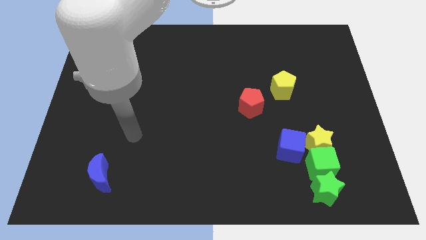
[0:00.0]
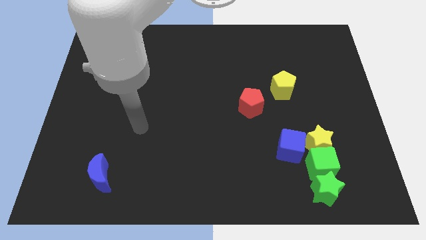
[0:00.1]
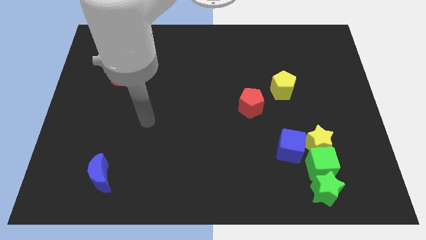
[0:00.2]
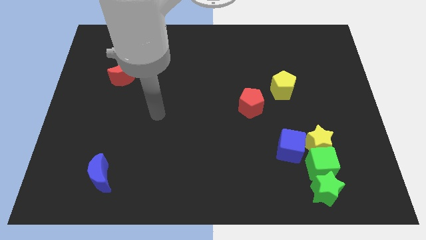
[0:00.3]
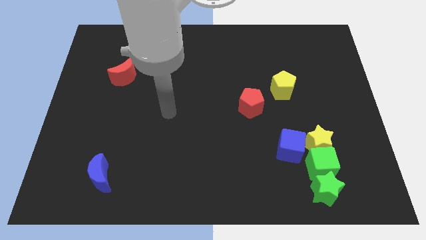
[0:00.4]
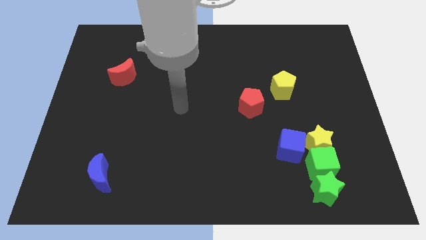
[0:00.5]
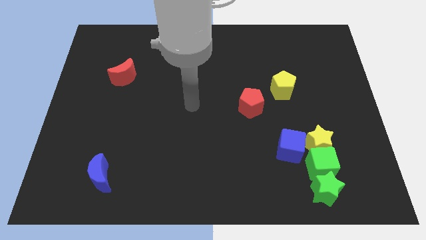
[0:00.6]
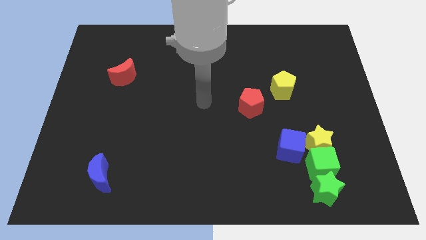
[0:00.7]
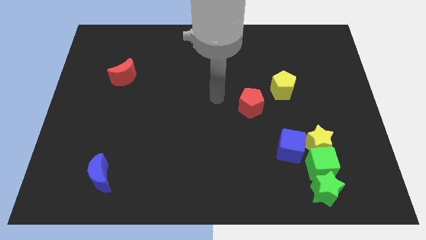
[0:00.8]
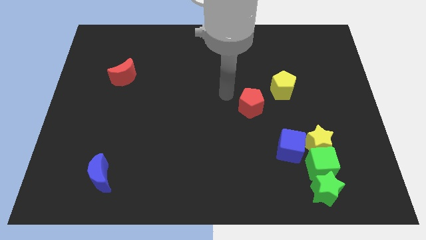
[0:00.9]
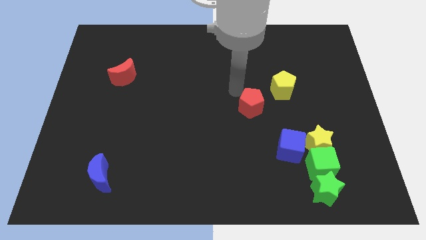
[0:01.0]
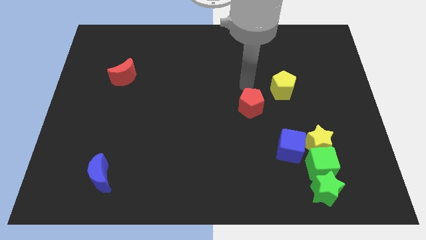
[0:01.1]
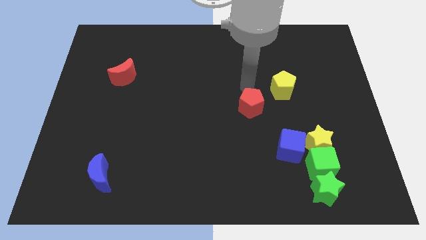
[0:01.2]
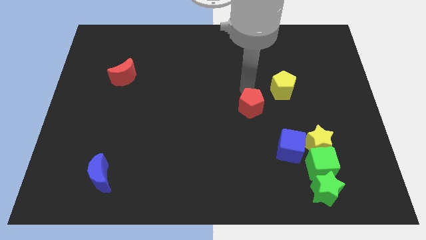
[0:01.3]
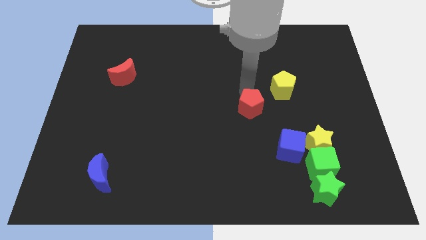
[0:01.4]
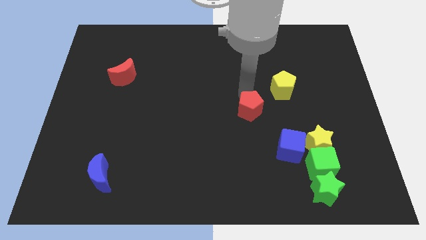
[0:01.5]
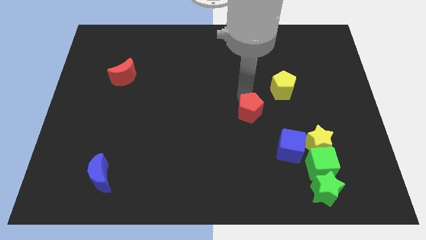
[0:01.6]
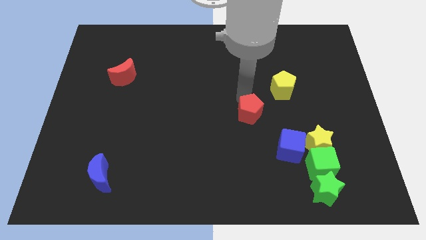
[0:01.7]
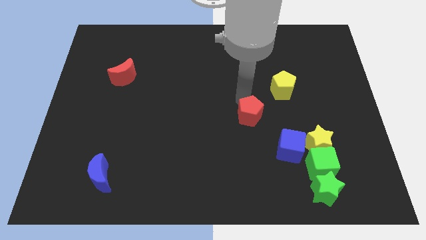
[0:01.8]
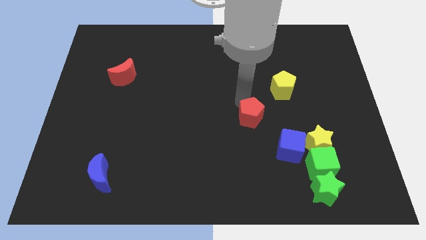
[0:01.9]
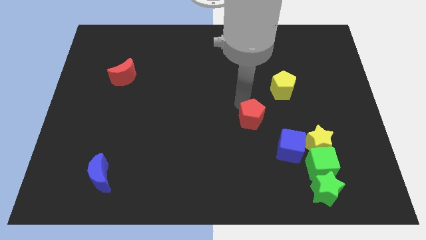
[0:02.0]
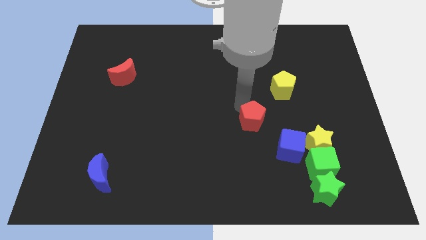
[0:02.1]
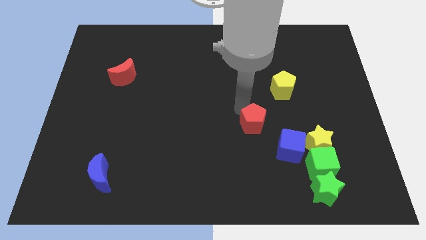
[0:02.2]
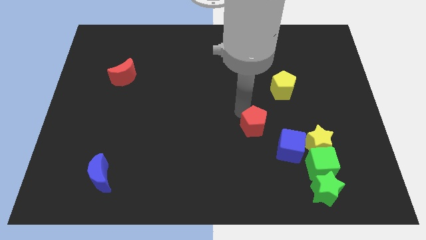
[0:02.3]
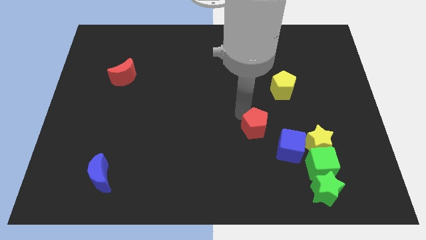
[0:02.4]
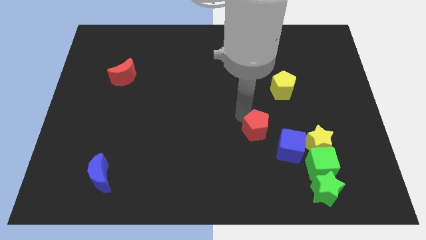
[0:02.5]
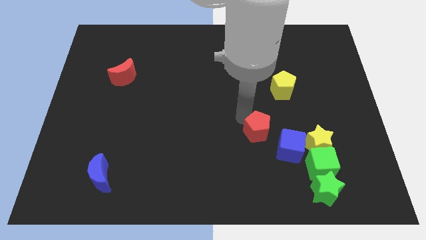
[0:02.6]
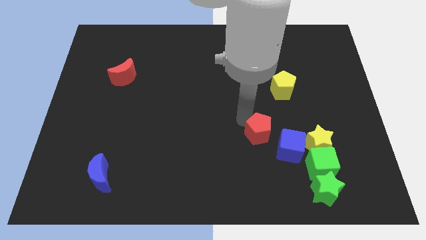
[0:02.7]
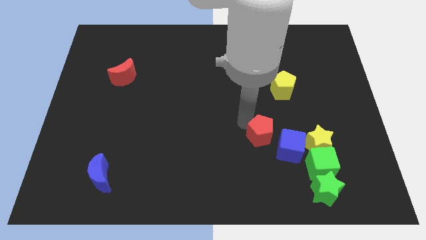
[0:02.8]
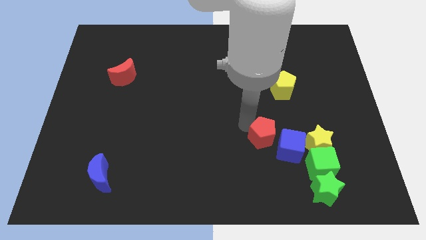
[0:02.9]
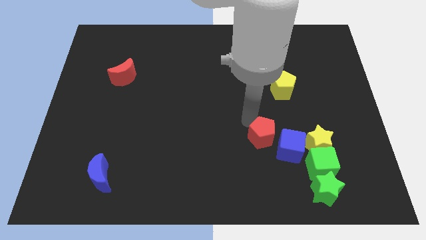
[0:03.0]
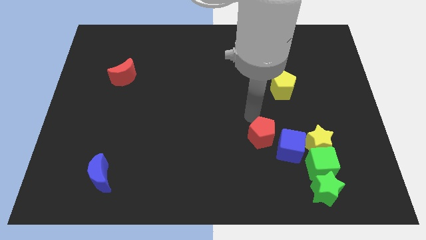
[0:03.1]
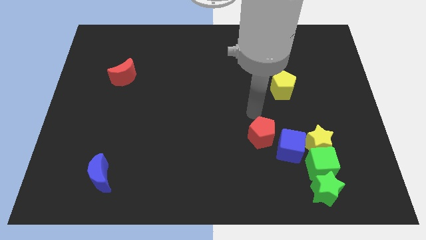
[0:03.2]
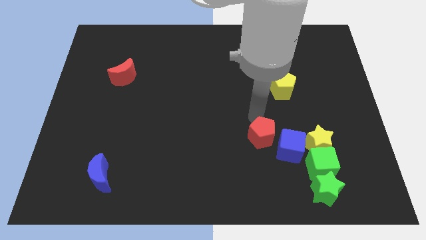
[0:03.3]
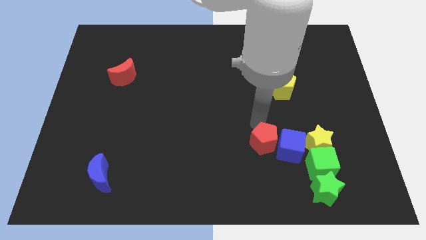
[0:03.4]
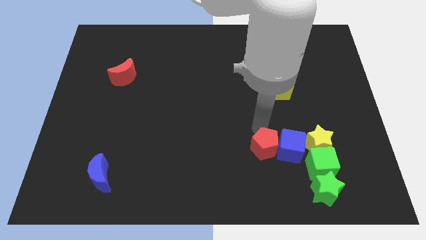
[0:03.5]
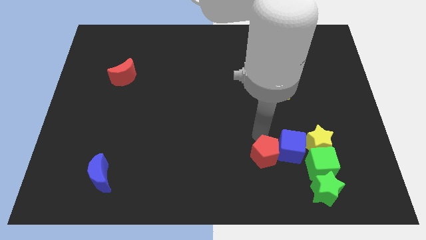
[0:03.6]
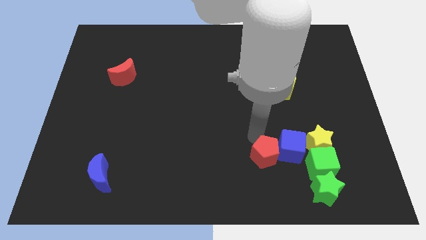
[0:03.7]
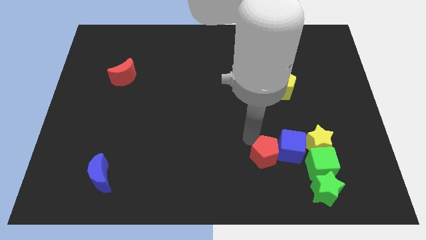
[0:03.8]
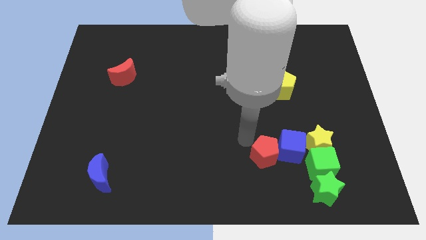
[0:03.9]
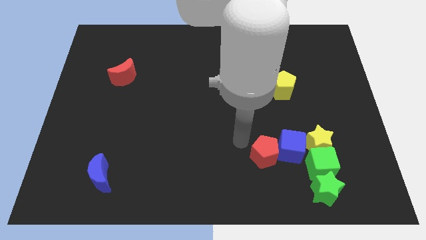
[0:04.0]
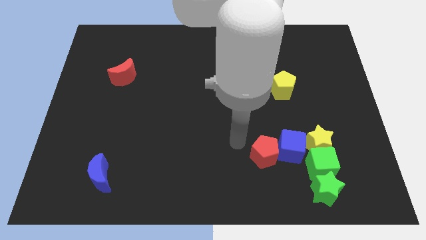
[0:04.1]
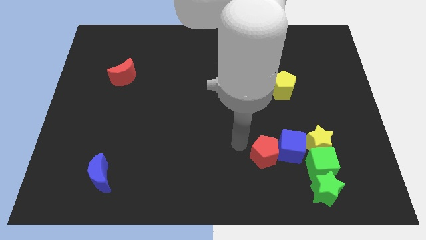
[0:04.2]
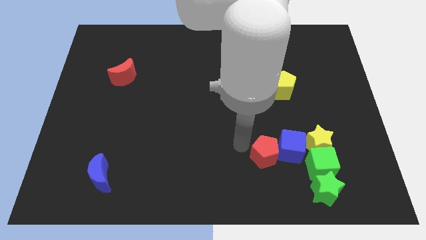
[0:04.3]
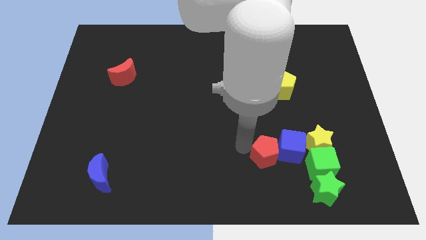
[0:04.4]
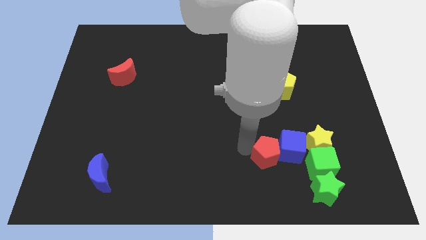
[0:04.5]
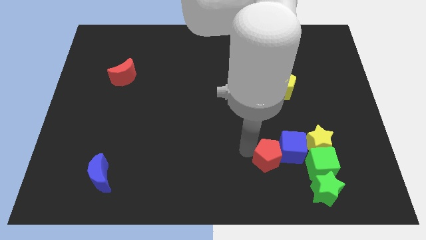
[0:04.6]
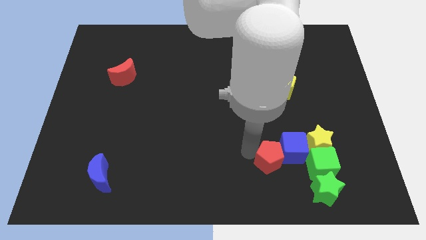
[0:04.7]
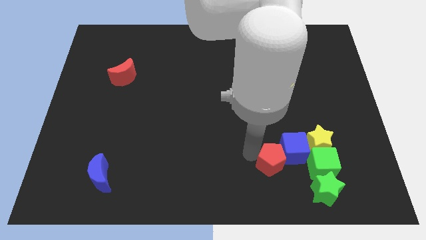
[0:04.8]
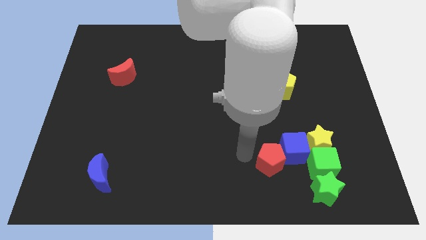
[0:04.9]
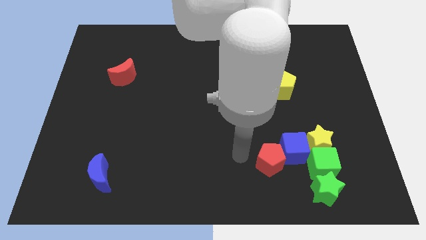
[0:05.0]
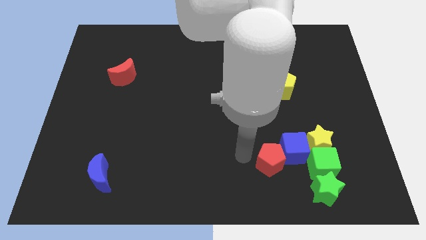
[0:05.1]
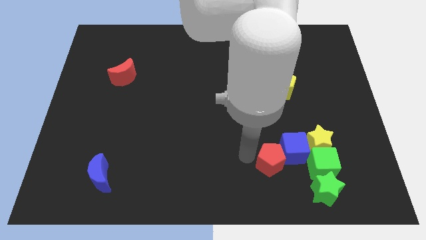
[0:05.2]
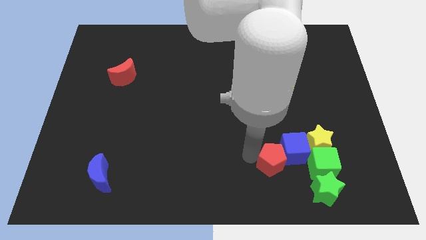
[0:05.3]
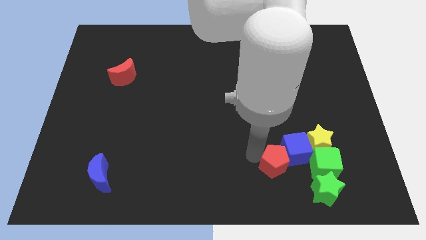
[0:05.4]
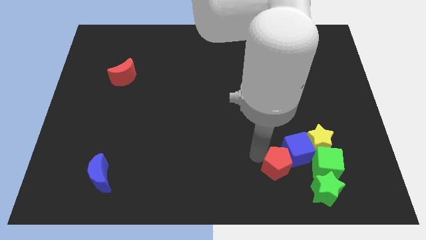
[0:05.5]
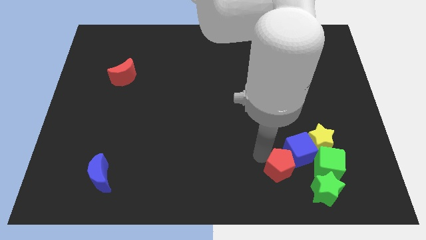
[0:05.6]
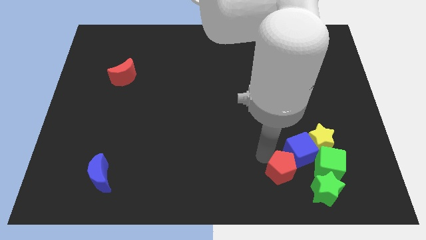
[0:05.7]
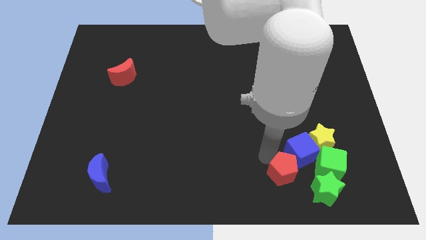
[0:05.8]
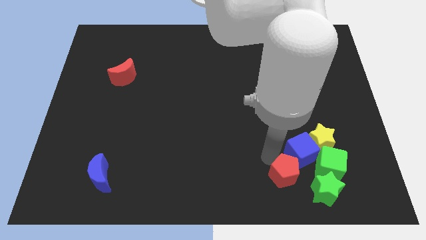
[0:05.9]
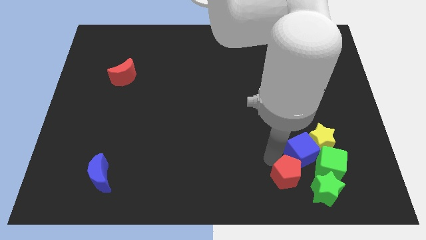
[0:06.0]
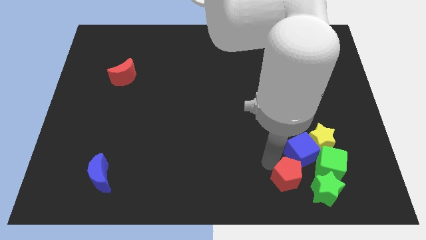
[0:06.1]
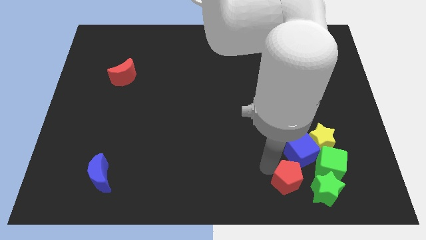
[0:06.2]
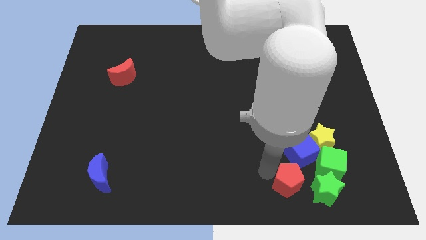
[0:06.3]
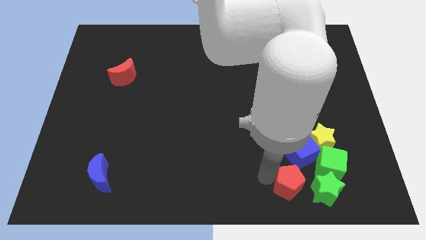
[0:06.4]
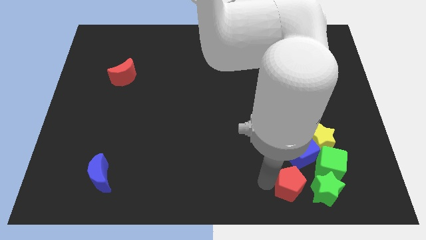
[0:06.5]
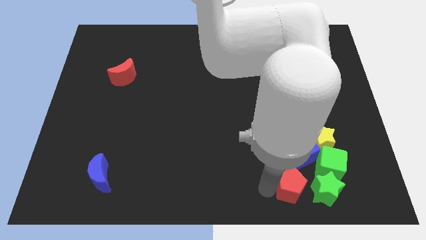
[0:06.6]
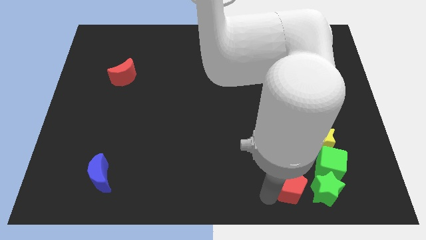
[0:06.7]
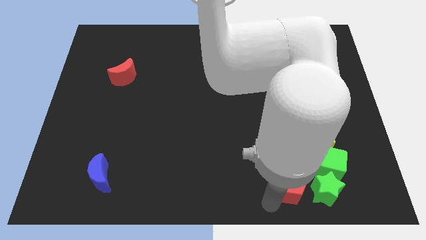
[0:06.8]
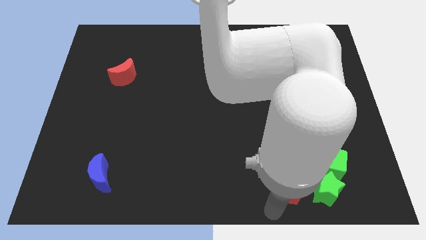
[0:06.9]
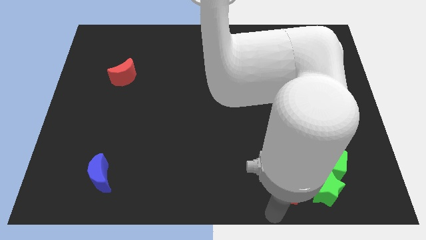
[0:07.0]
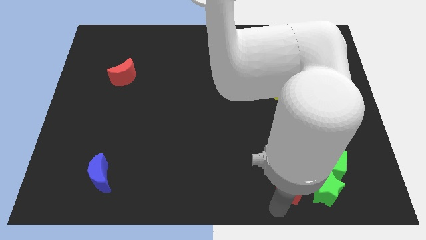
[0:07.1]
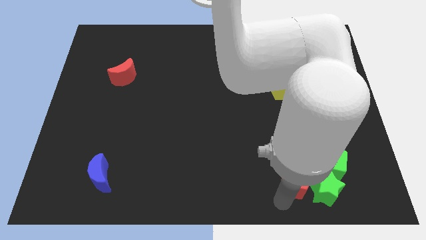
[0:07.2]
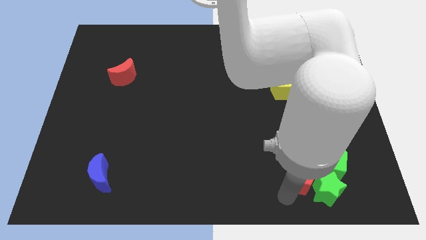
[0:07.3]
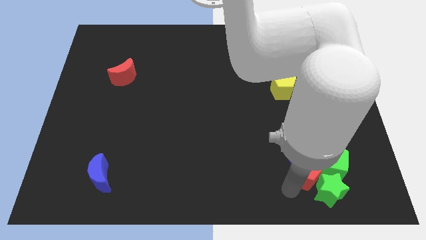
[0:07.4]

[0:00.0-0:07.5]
push the red pentagon next to the green cube
